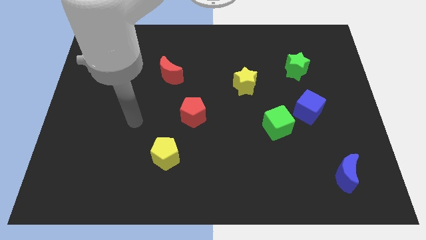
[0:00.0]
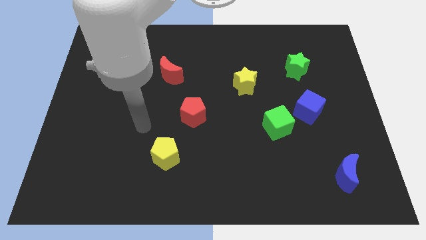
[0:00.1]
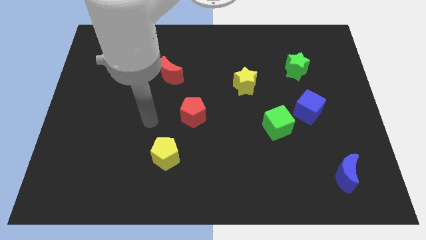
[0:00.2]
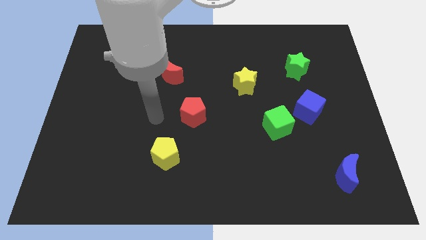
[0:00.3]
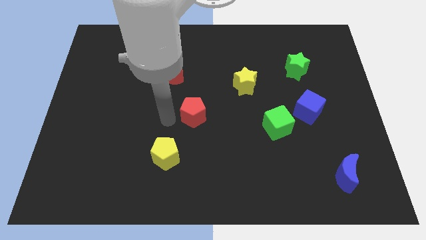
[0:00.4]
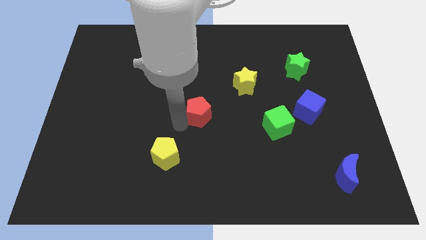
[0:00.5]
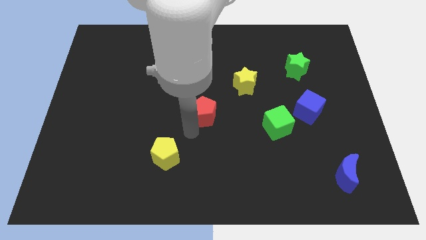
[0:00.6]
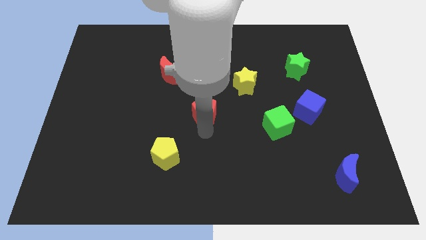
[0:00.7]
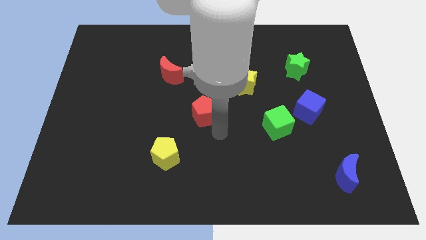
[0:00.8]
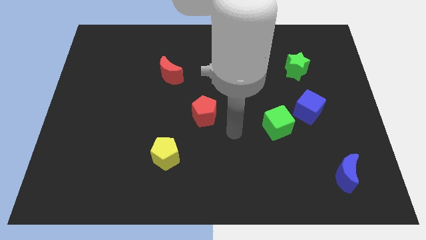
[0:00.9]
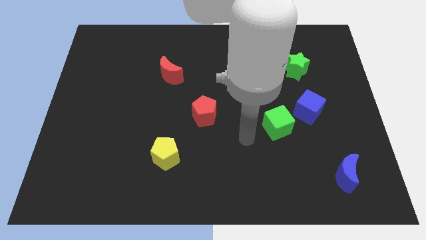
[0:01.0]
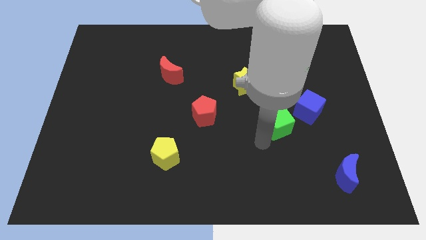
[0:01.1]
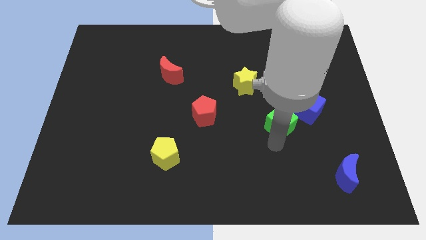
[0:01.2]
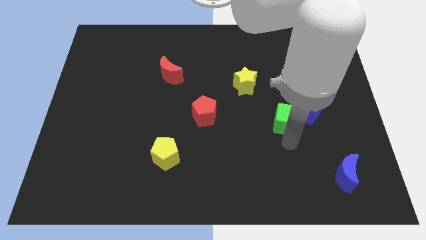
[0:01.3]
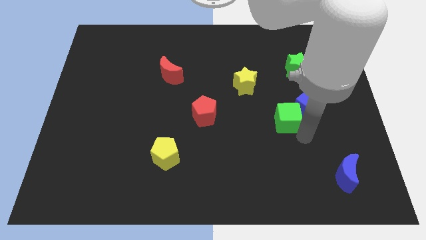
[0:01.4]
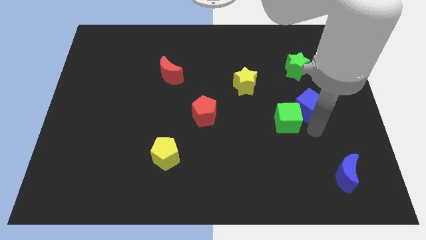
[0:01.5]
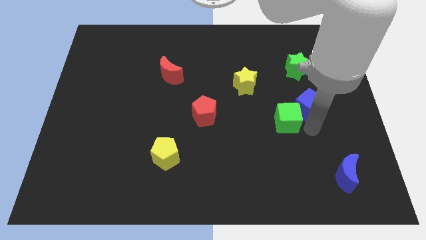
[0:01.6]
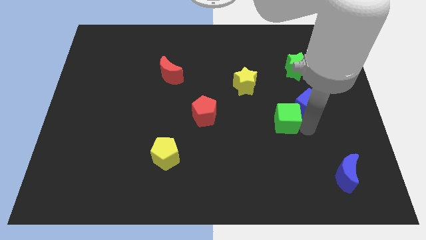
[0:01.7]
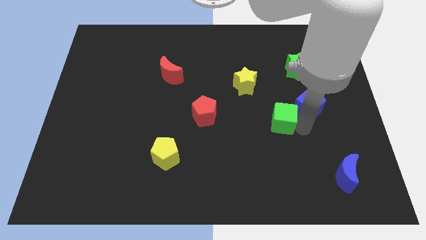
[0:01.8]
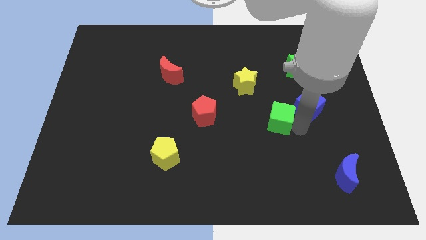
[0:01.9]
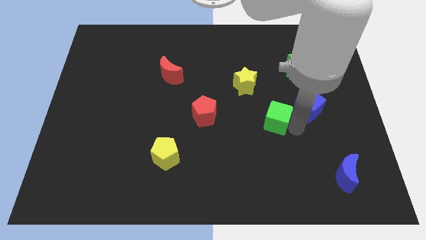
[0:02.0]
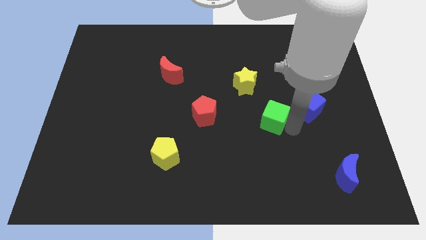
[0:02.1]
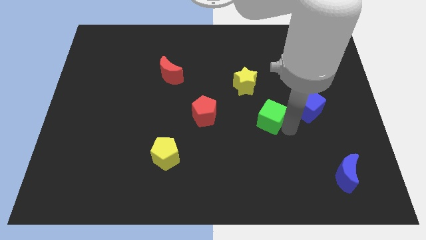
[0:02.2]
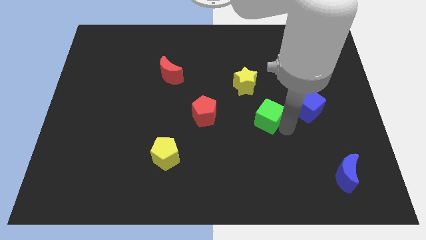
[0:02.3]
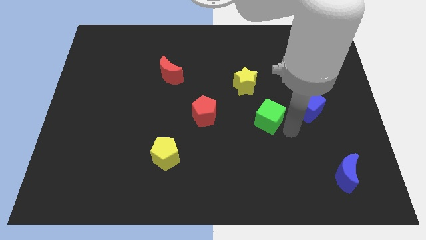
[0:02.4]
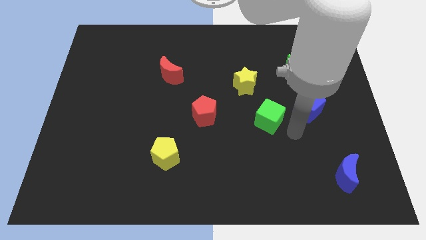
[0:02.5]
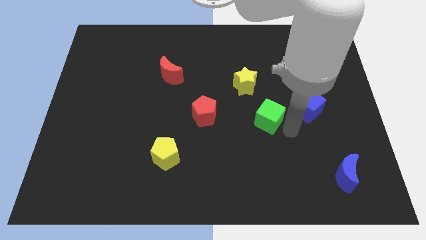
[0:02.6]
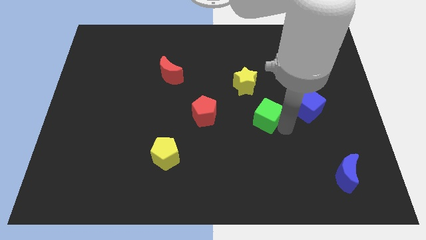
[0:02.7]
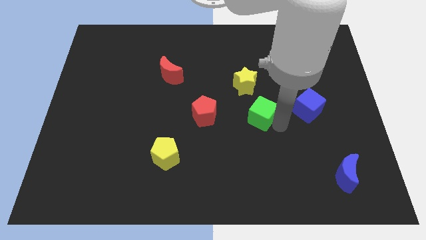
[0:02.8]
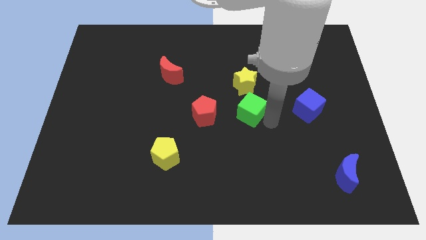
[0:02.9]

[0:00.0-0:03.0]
push the green cube a little bit diagonally up and to the left

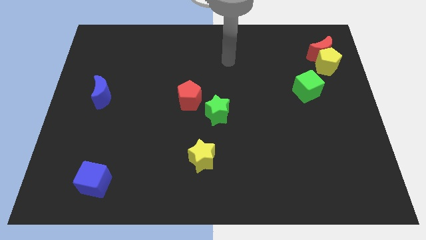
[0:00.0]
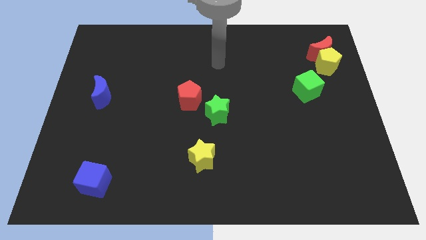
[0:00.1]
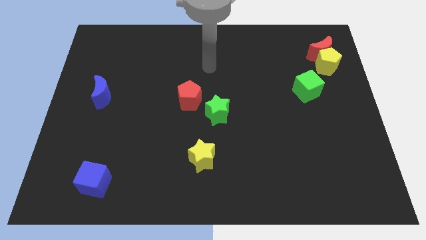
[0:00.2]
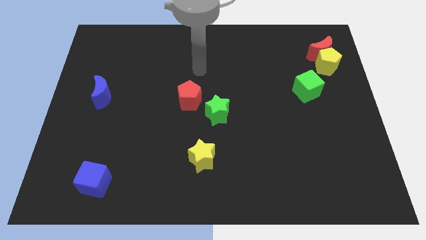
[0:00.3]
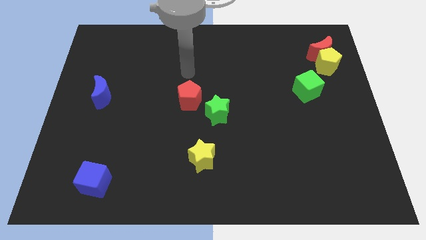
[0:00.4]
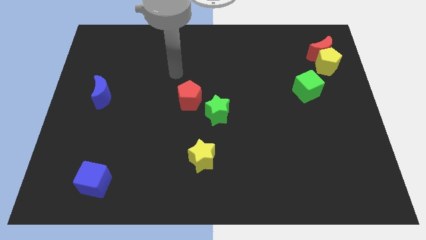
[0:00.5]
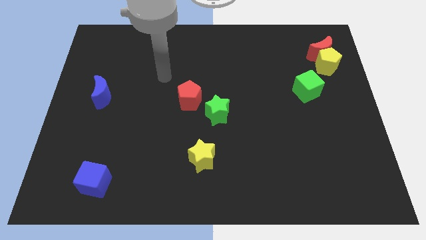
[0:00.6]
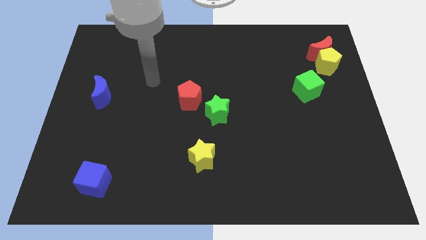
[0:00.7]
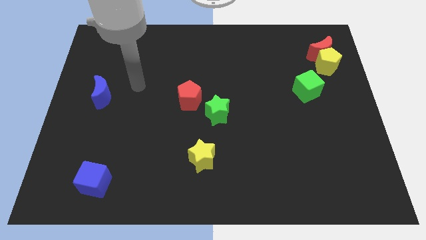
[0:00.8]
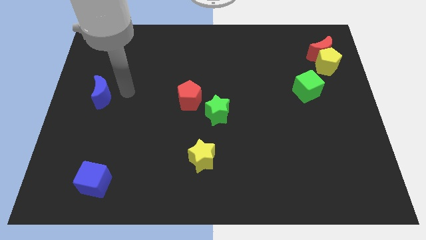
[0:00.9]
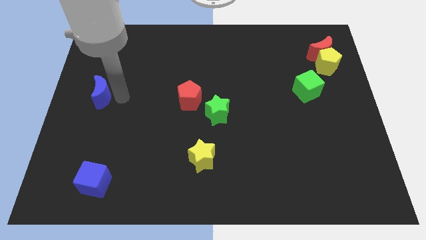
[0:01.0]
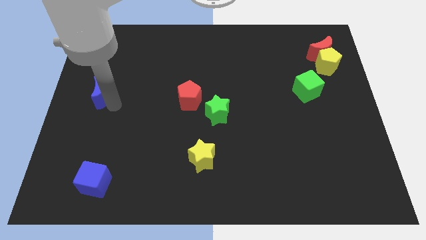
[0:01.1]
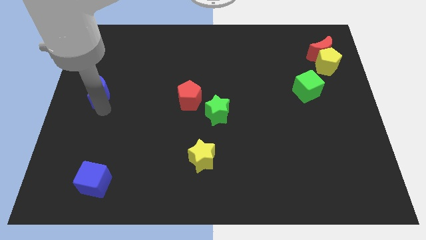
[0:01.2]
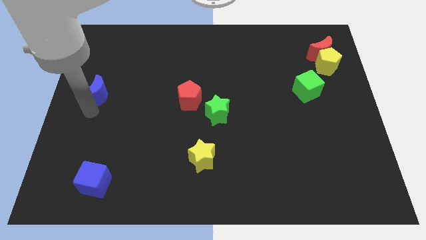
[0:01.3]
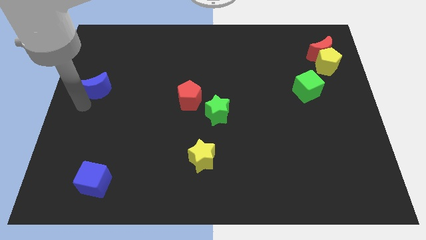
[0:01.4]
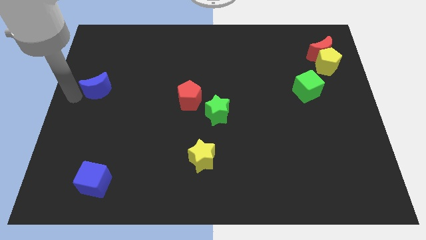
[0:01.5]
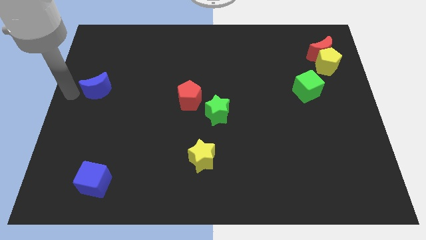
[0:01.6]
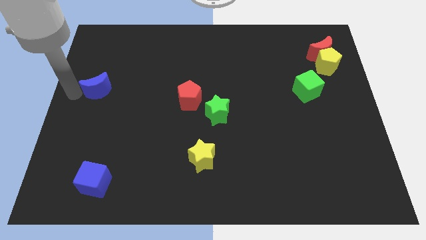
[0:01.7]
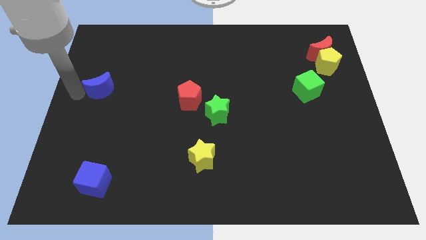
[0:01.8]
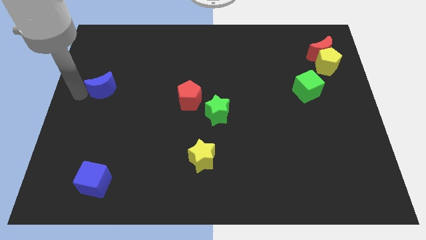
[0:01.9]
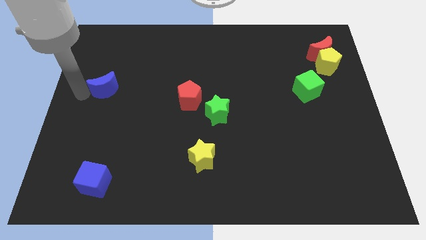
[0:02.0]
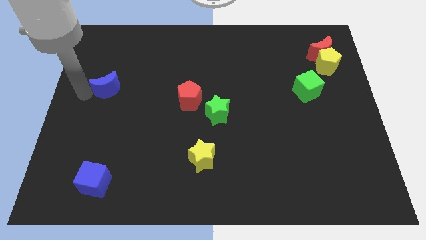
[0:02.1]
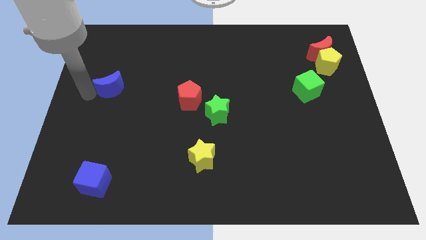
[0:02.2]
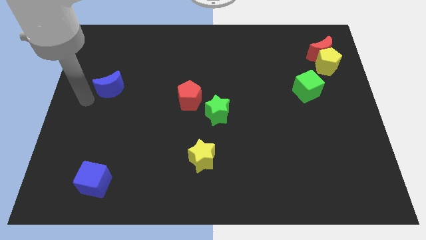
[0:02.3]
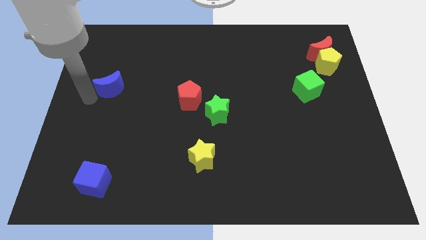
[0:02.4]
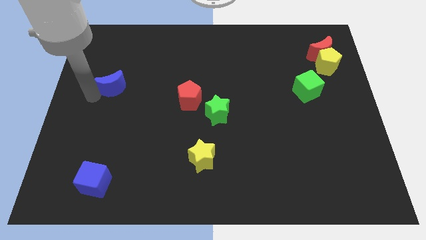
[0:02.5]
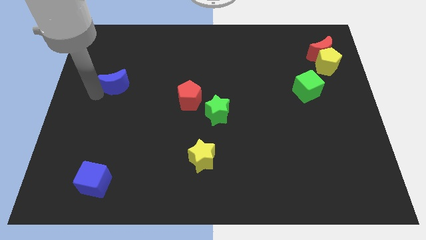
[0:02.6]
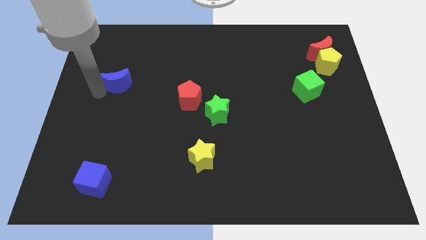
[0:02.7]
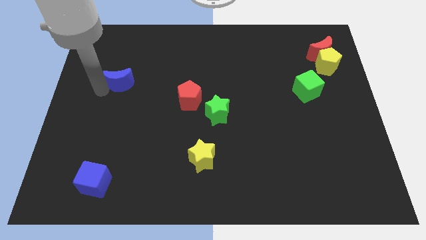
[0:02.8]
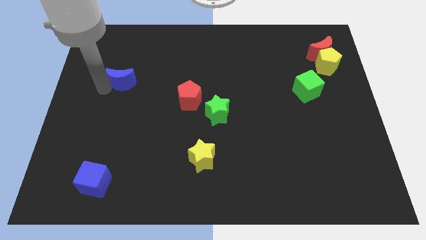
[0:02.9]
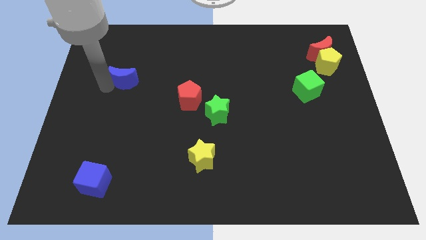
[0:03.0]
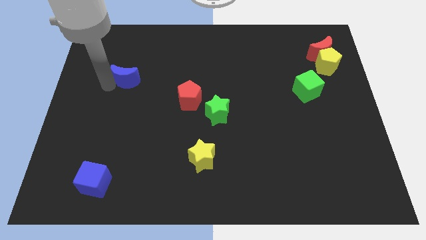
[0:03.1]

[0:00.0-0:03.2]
slide the blue moon up and then right slightly

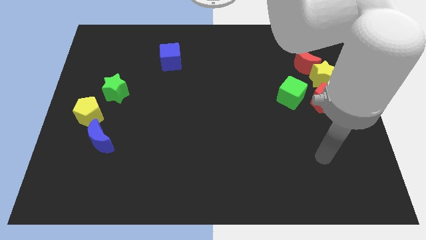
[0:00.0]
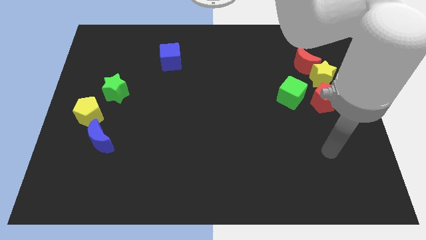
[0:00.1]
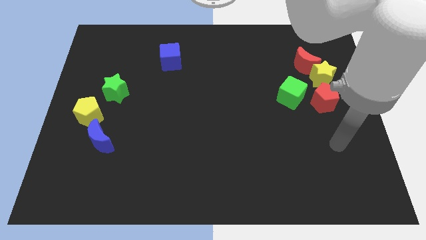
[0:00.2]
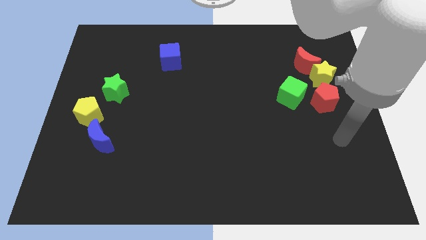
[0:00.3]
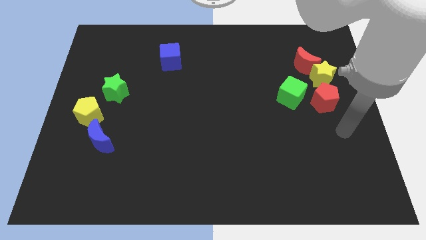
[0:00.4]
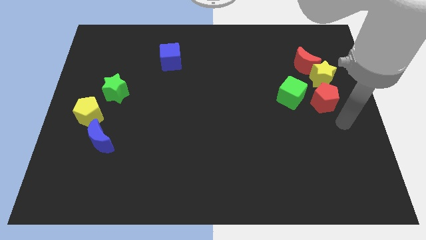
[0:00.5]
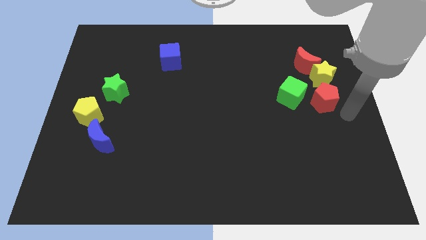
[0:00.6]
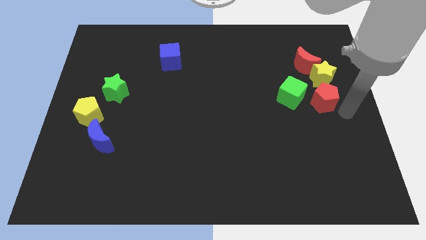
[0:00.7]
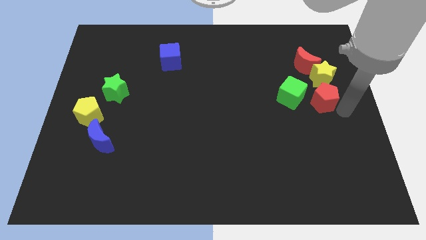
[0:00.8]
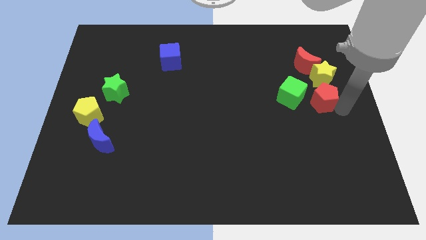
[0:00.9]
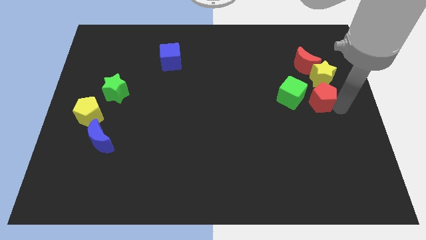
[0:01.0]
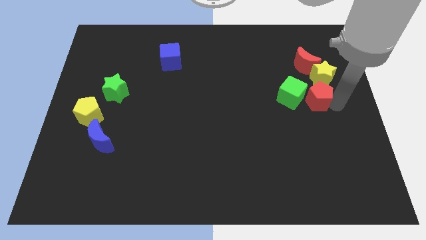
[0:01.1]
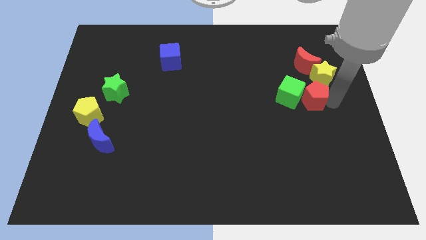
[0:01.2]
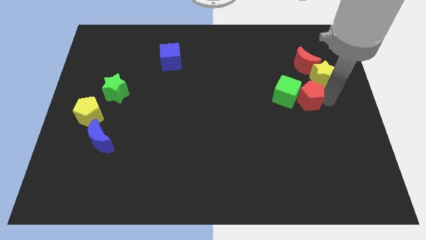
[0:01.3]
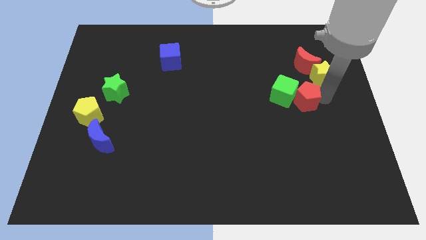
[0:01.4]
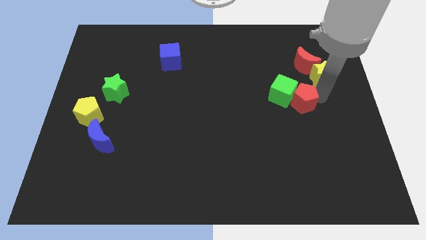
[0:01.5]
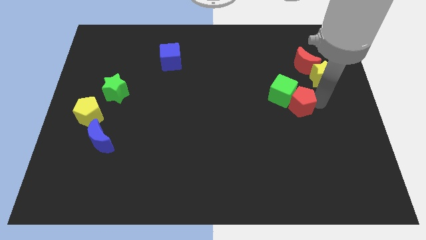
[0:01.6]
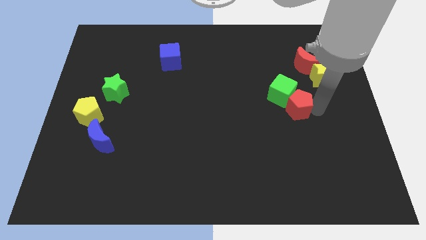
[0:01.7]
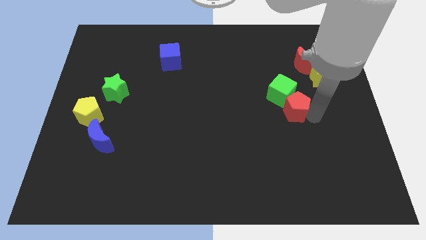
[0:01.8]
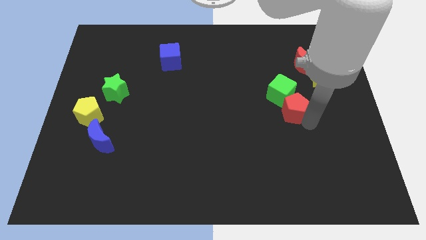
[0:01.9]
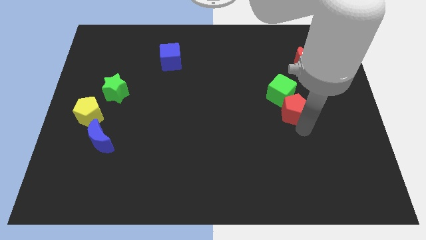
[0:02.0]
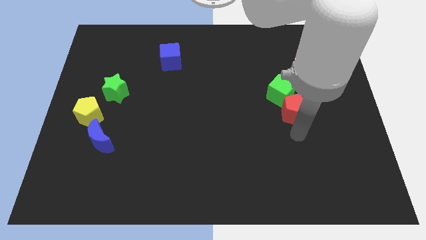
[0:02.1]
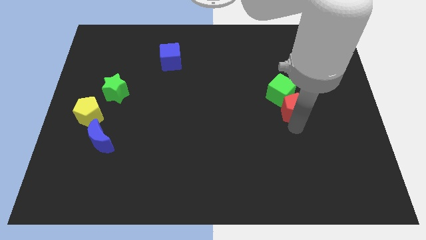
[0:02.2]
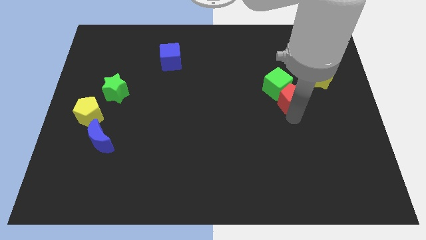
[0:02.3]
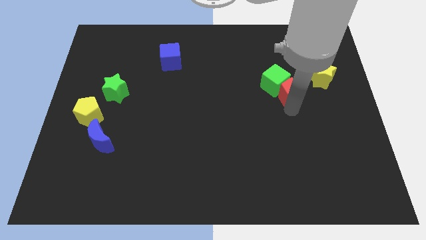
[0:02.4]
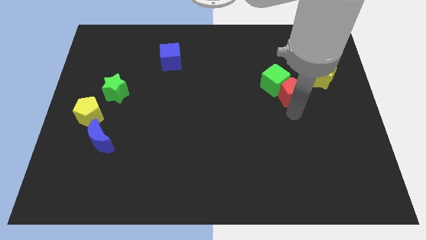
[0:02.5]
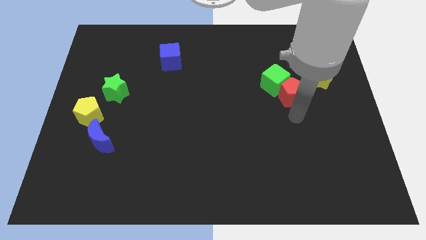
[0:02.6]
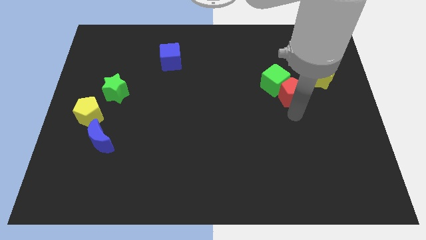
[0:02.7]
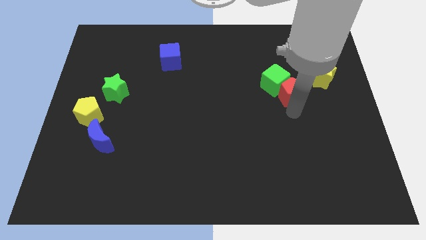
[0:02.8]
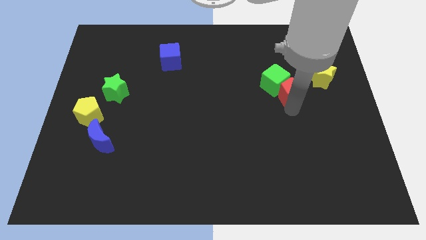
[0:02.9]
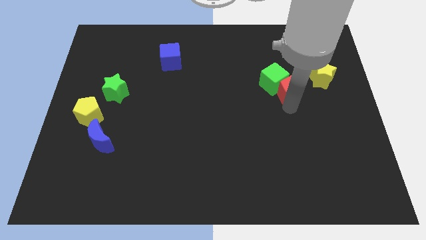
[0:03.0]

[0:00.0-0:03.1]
push the red pentagon up and left diagonally a little bit
